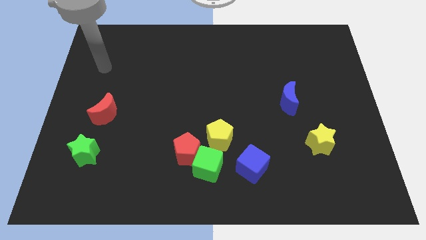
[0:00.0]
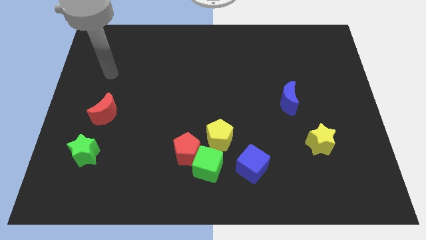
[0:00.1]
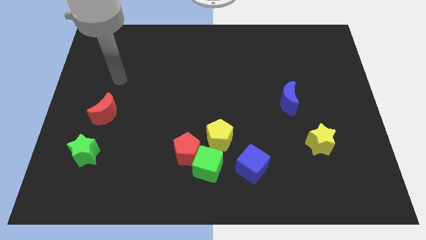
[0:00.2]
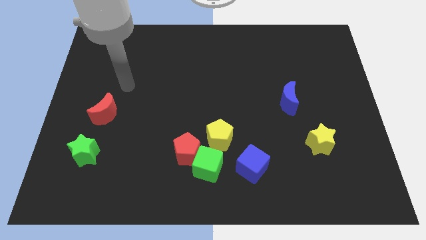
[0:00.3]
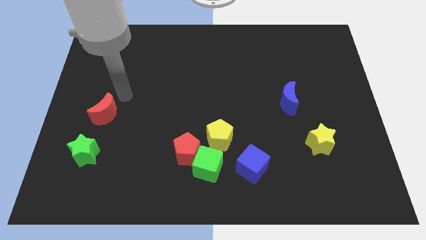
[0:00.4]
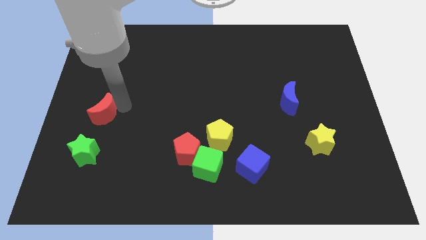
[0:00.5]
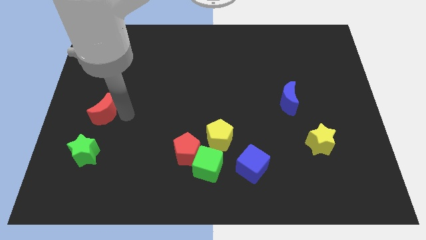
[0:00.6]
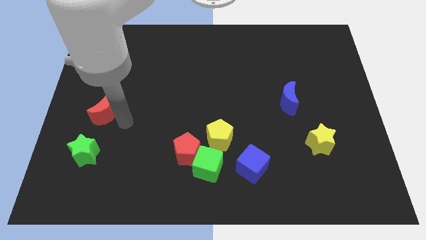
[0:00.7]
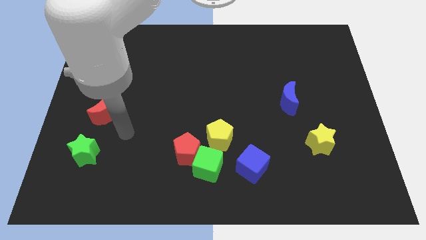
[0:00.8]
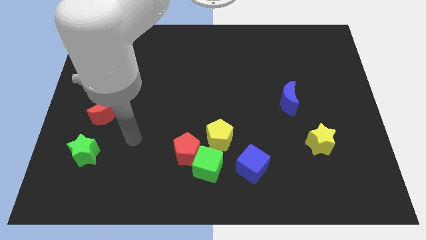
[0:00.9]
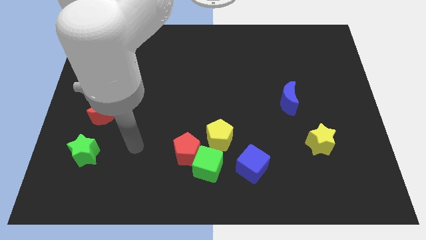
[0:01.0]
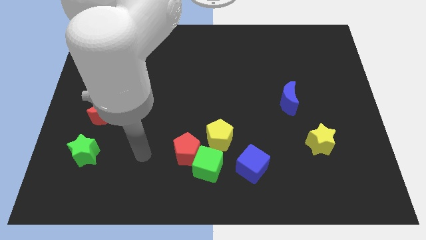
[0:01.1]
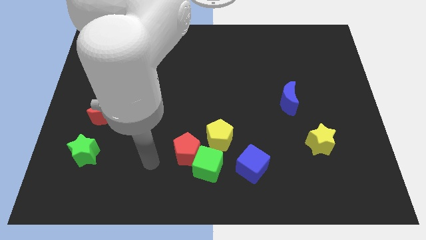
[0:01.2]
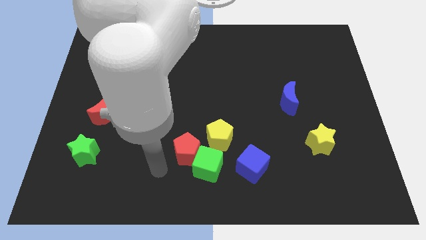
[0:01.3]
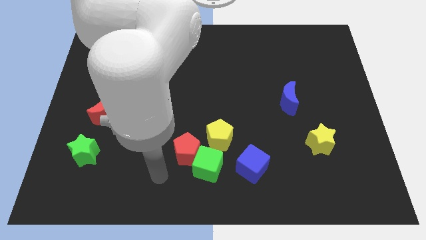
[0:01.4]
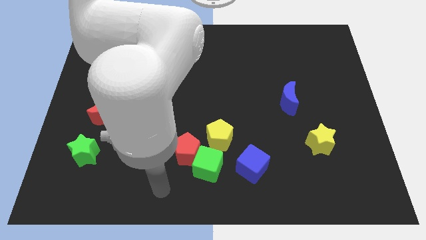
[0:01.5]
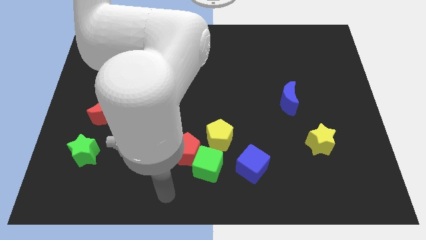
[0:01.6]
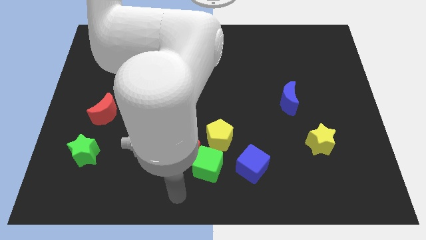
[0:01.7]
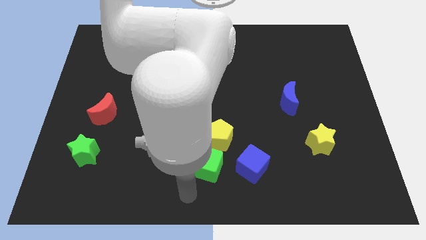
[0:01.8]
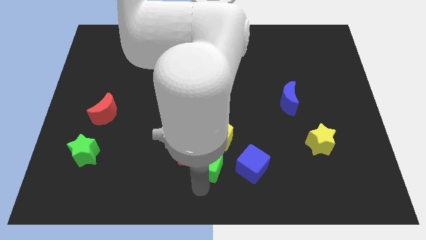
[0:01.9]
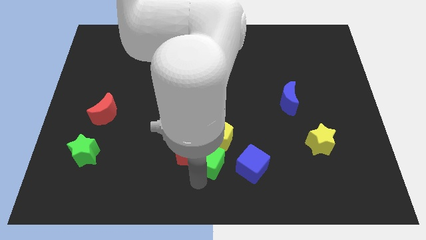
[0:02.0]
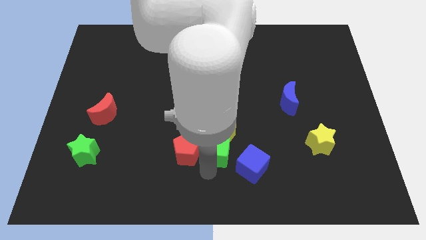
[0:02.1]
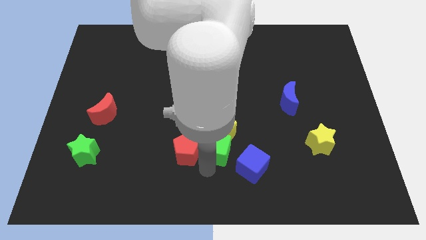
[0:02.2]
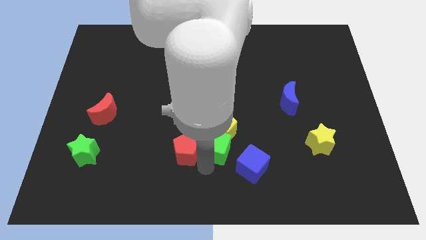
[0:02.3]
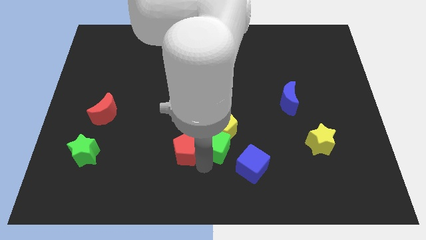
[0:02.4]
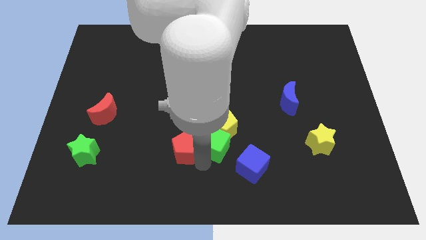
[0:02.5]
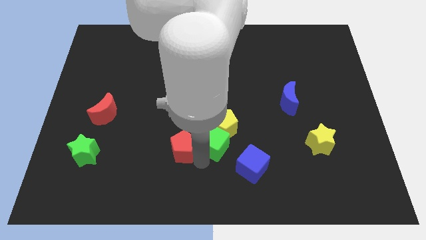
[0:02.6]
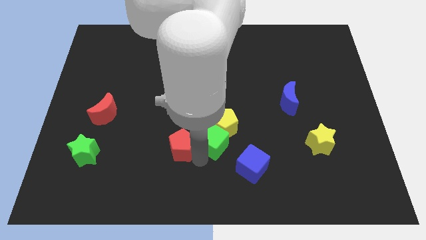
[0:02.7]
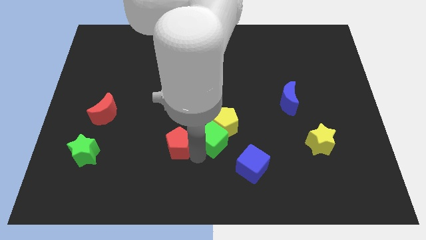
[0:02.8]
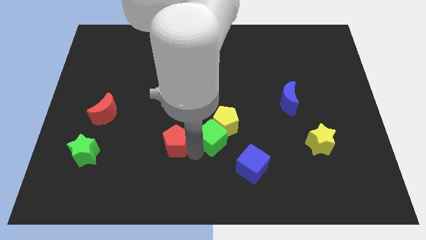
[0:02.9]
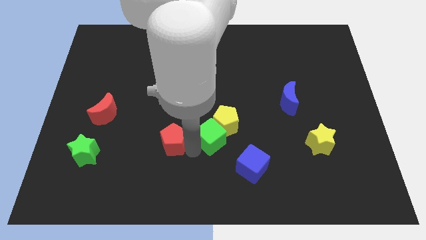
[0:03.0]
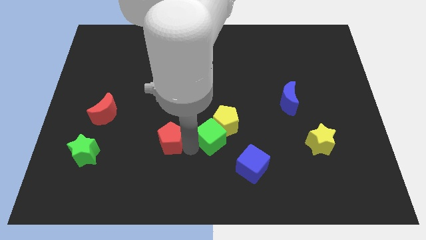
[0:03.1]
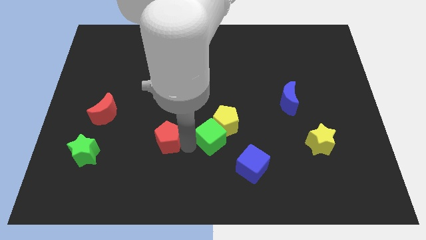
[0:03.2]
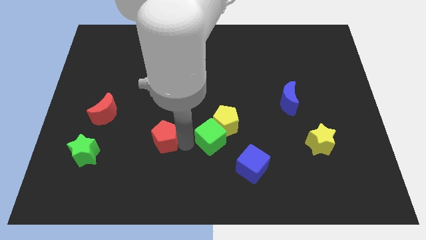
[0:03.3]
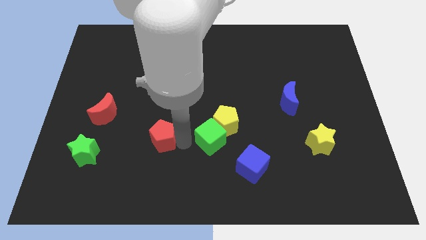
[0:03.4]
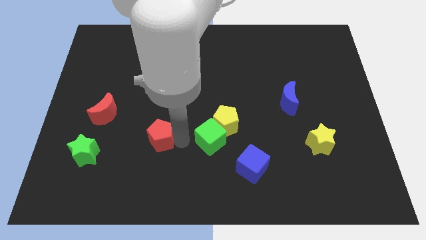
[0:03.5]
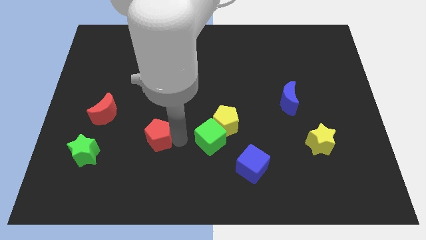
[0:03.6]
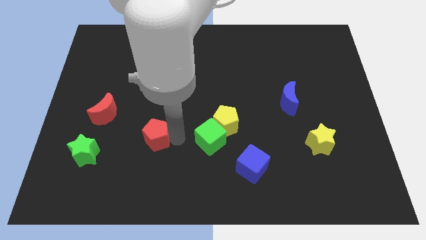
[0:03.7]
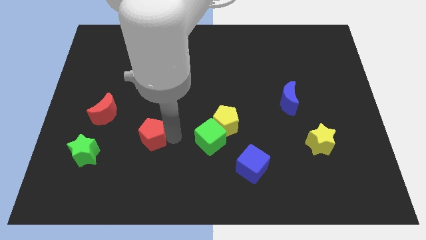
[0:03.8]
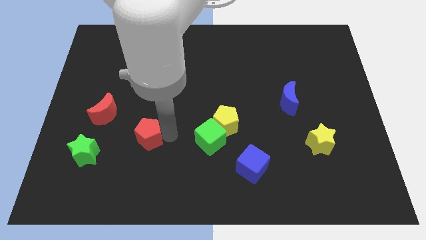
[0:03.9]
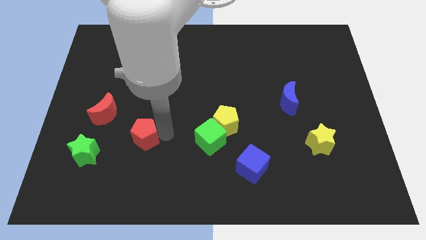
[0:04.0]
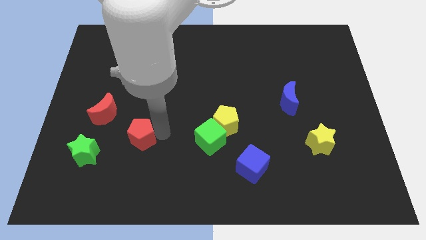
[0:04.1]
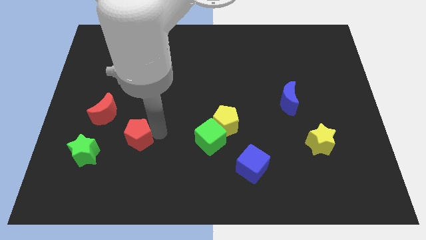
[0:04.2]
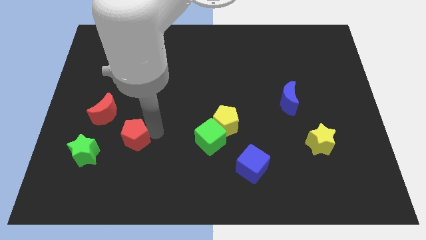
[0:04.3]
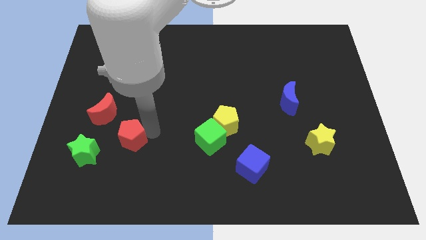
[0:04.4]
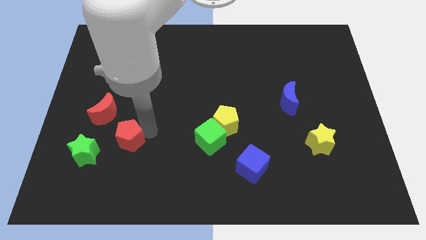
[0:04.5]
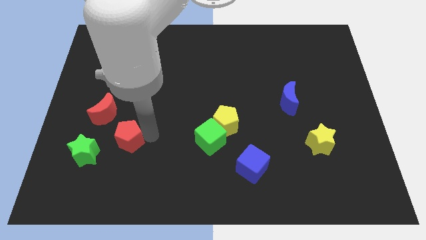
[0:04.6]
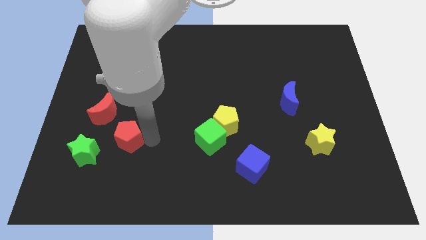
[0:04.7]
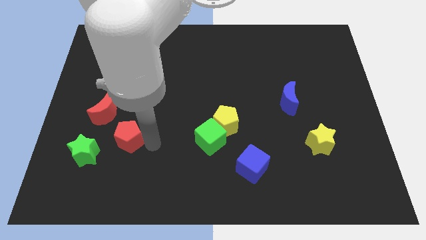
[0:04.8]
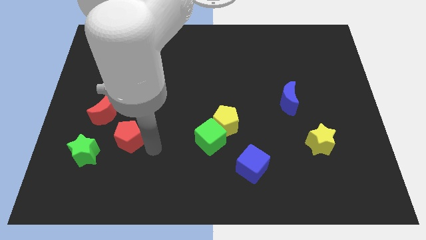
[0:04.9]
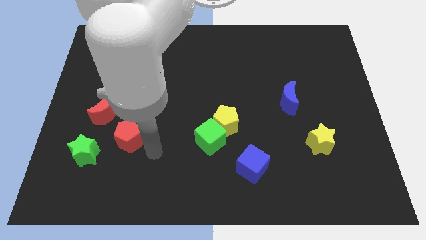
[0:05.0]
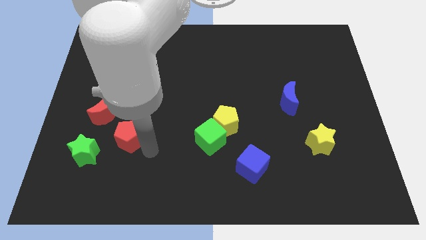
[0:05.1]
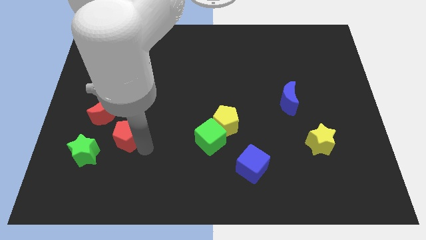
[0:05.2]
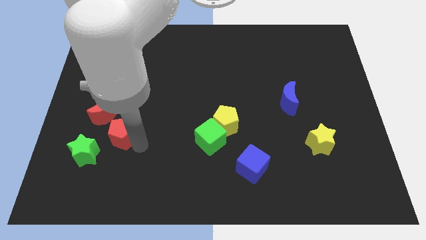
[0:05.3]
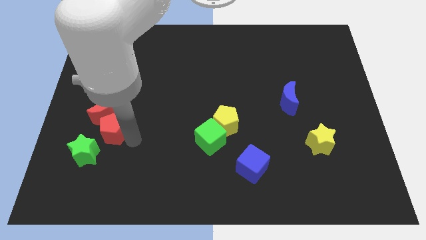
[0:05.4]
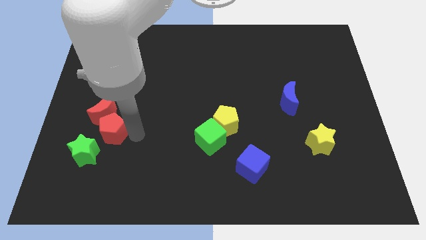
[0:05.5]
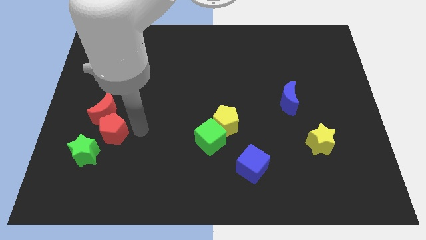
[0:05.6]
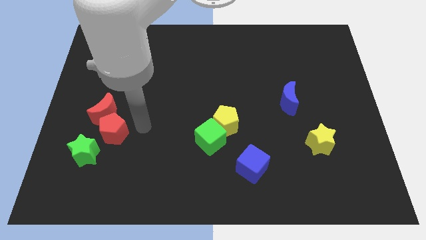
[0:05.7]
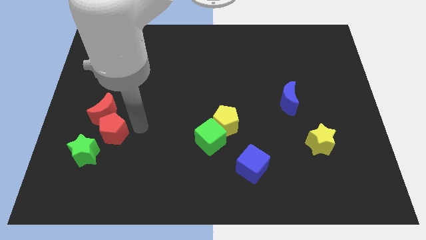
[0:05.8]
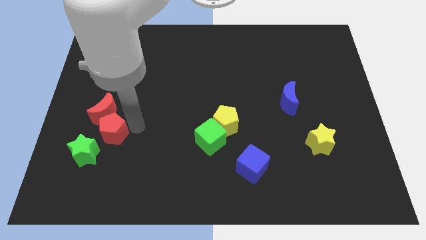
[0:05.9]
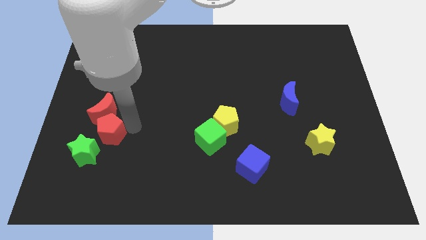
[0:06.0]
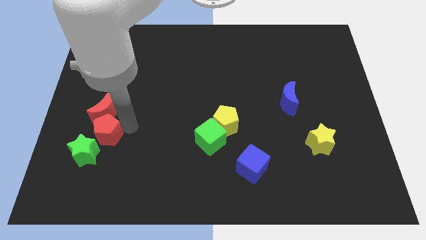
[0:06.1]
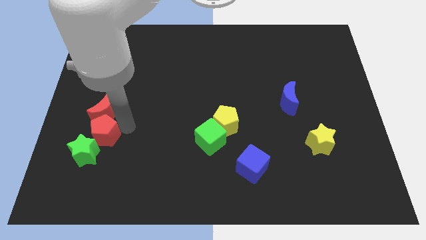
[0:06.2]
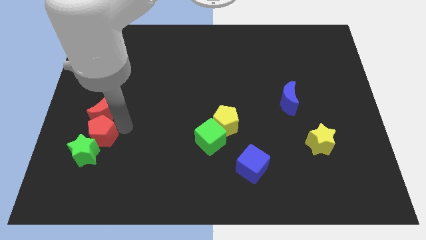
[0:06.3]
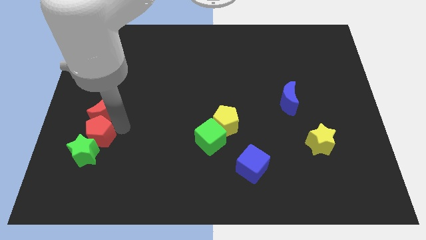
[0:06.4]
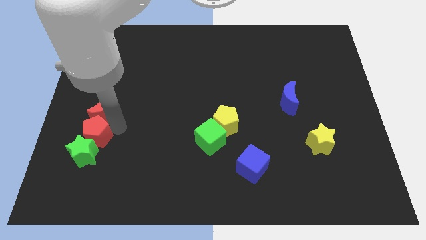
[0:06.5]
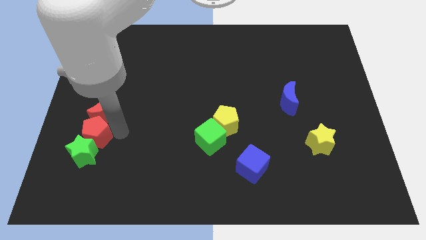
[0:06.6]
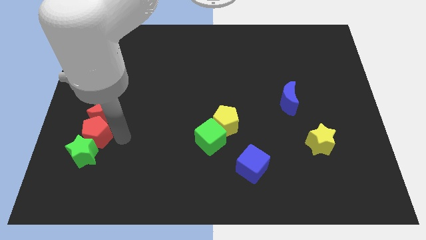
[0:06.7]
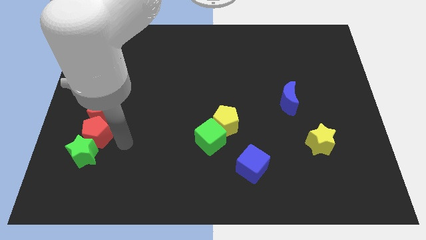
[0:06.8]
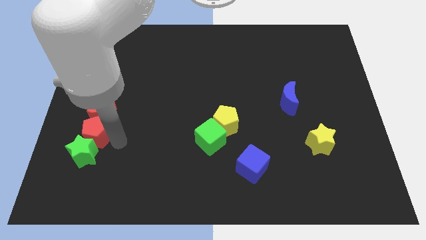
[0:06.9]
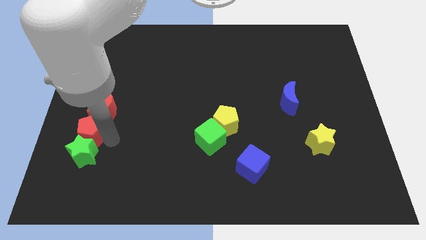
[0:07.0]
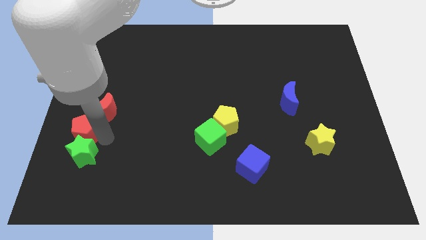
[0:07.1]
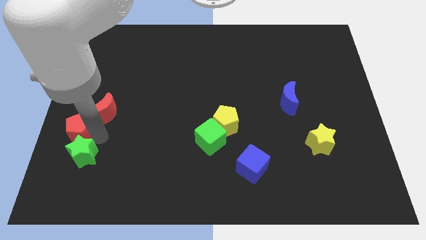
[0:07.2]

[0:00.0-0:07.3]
slide the red pentagon to the center left
